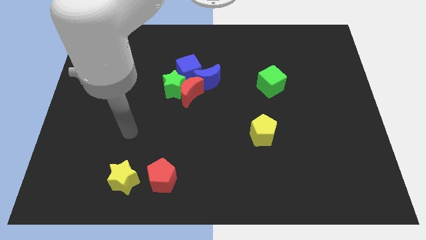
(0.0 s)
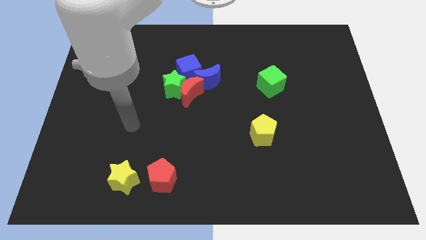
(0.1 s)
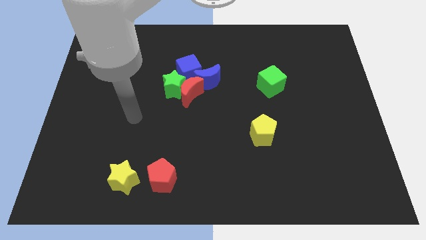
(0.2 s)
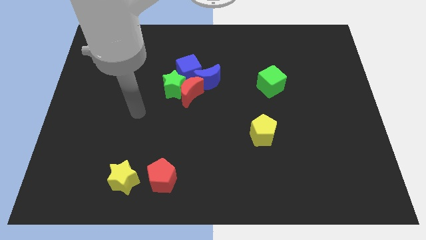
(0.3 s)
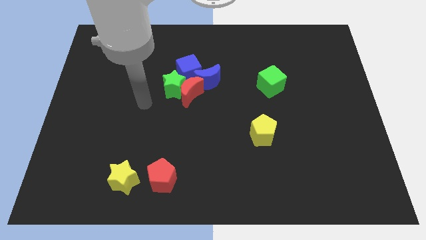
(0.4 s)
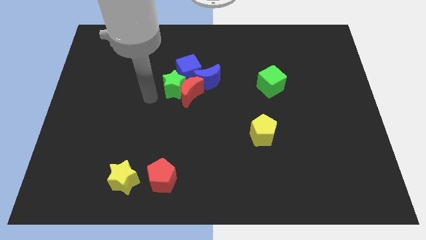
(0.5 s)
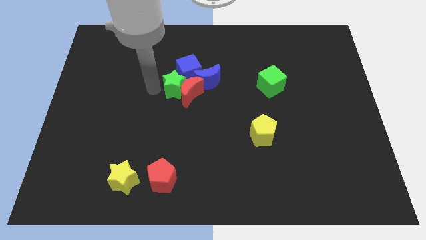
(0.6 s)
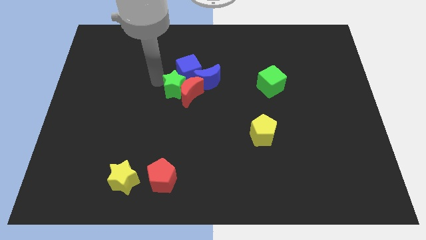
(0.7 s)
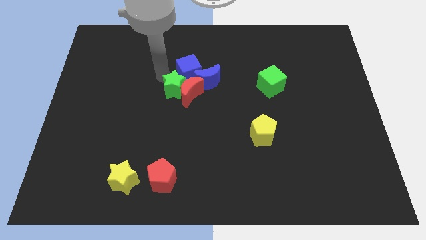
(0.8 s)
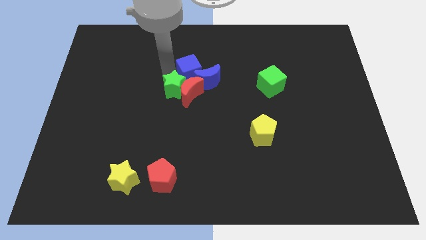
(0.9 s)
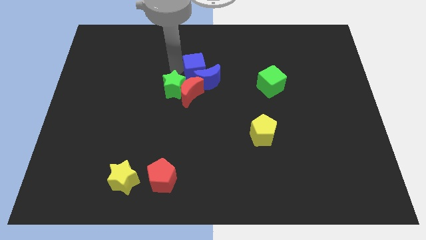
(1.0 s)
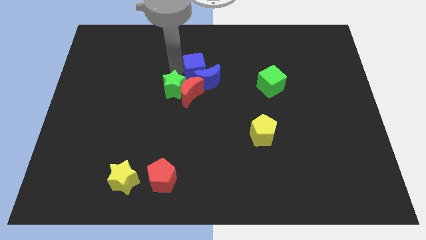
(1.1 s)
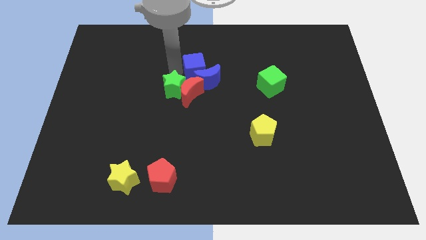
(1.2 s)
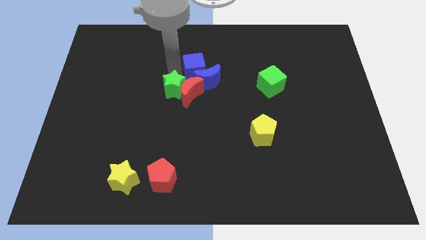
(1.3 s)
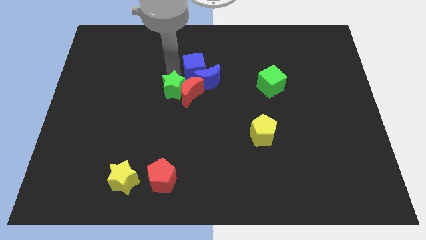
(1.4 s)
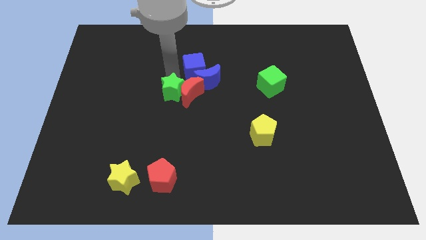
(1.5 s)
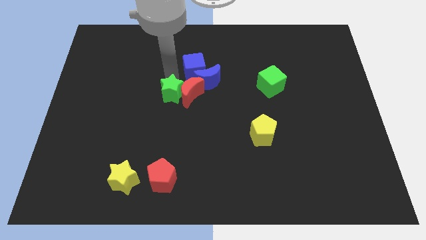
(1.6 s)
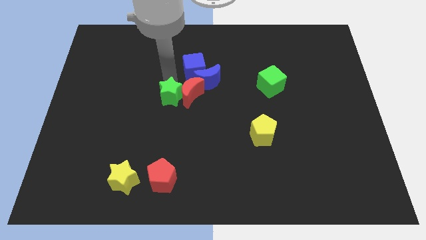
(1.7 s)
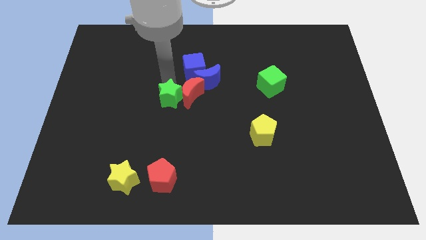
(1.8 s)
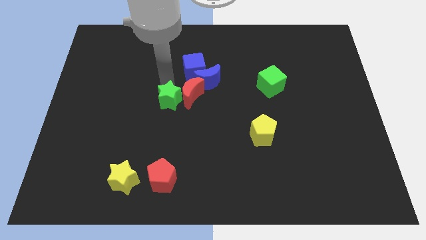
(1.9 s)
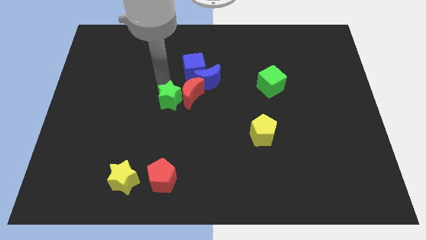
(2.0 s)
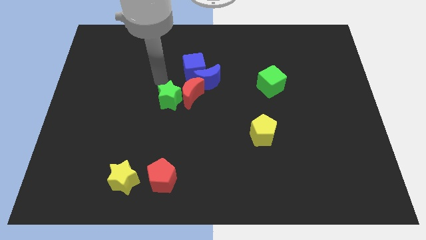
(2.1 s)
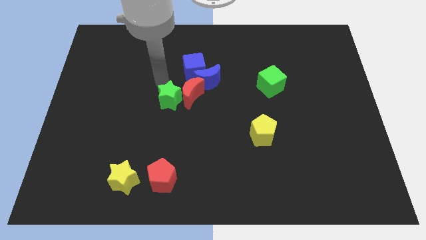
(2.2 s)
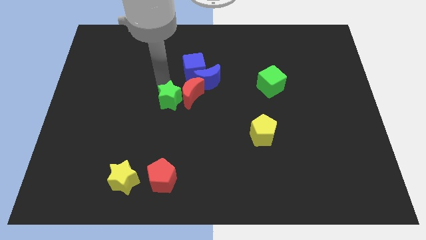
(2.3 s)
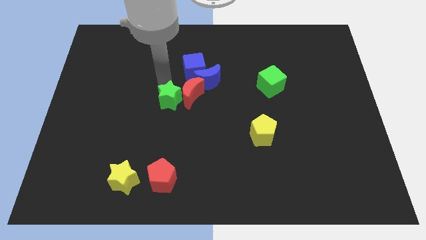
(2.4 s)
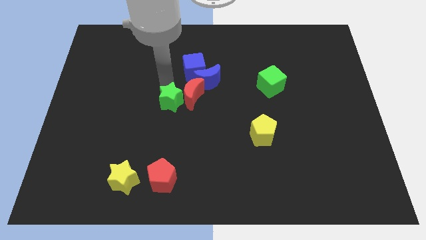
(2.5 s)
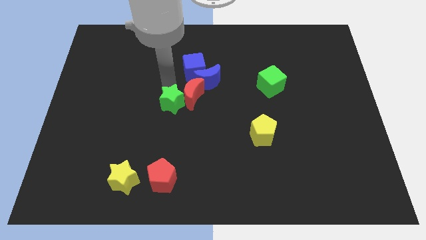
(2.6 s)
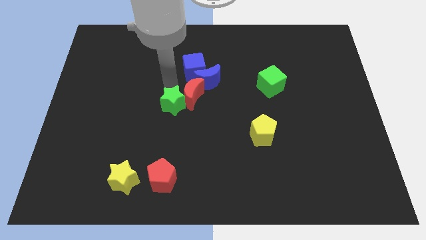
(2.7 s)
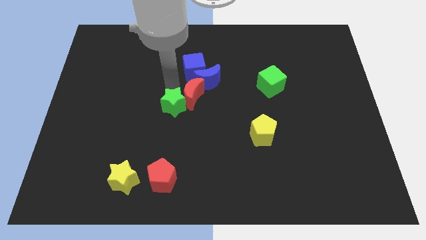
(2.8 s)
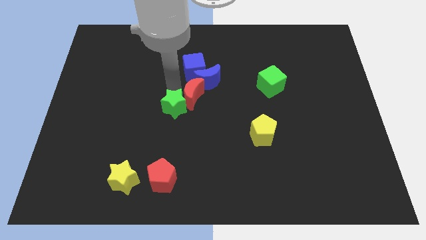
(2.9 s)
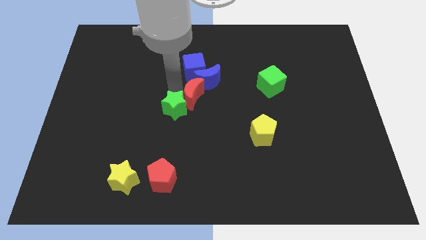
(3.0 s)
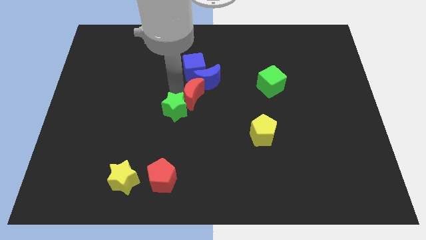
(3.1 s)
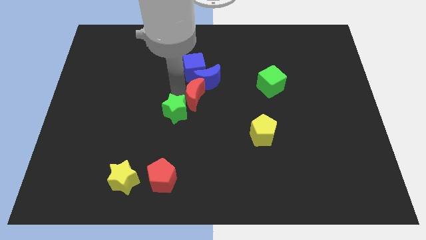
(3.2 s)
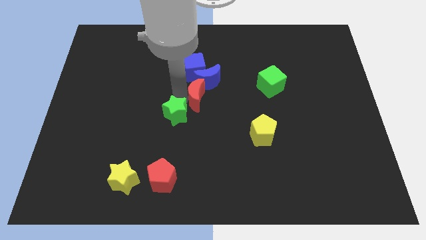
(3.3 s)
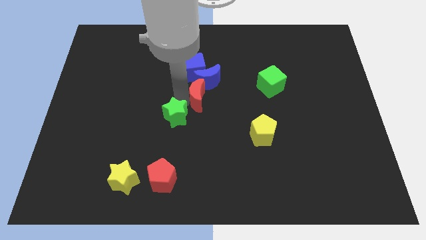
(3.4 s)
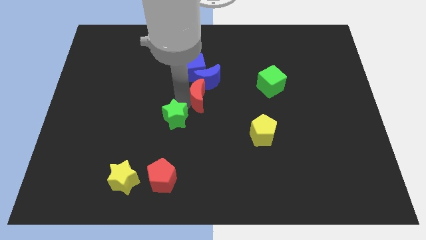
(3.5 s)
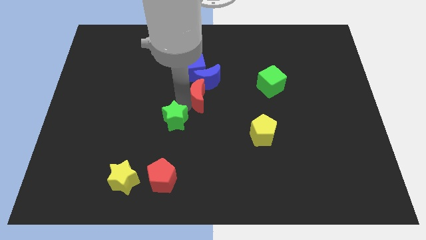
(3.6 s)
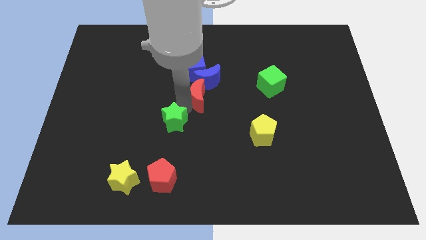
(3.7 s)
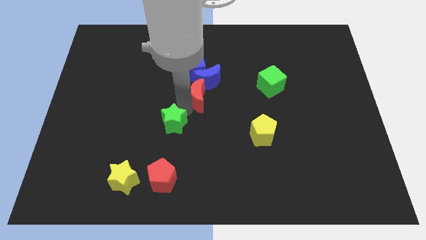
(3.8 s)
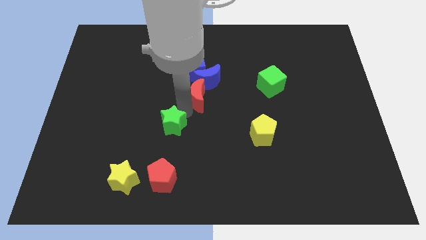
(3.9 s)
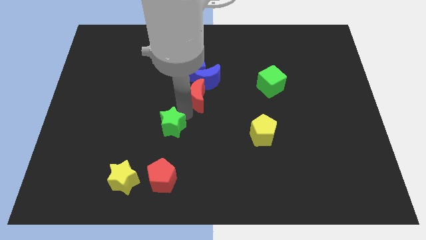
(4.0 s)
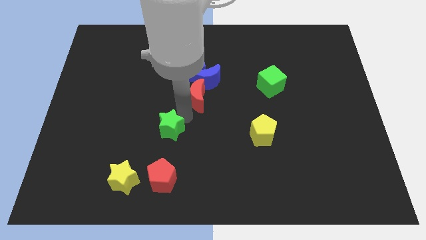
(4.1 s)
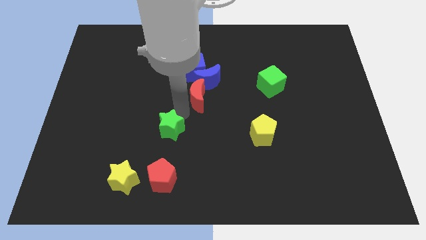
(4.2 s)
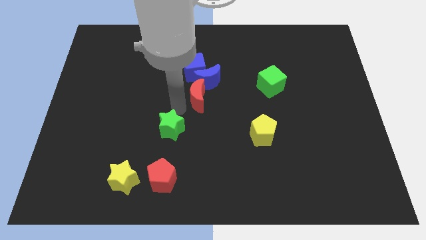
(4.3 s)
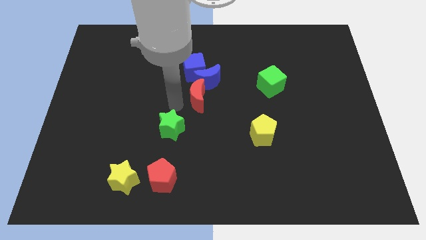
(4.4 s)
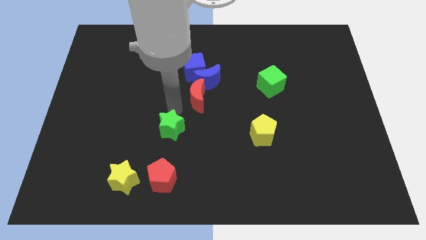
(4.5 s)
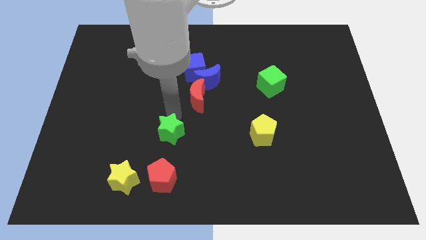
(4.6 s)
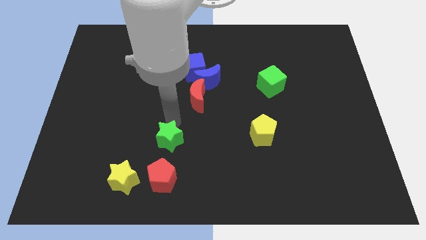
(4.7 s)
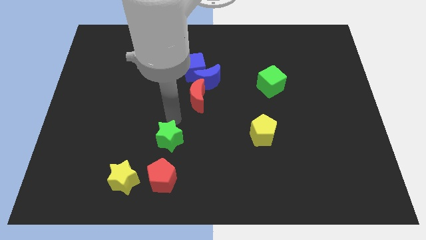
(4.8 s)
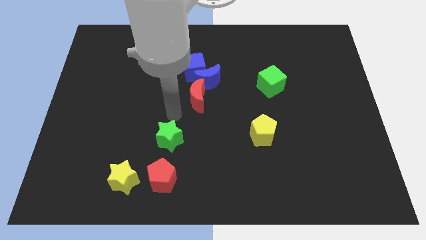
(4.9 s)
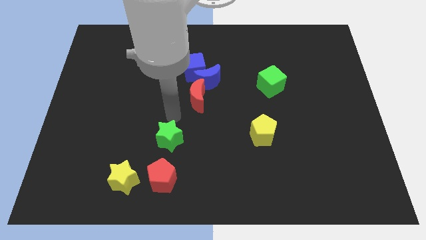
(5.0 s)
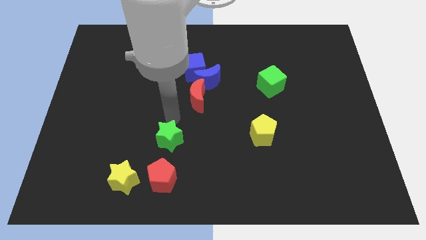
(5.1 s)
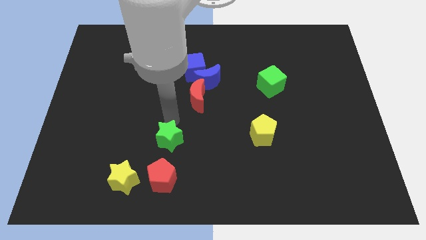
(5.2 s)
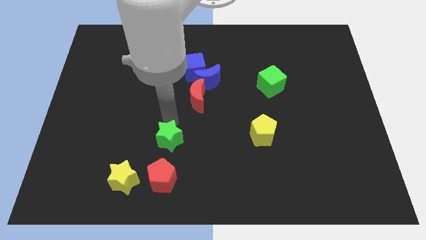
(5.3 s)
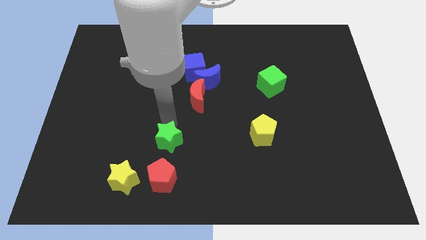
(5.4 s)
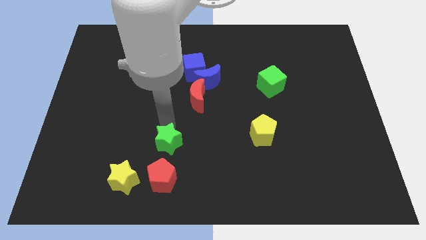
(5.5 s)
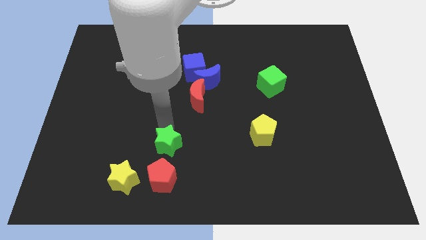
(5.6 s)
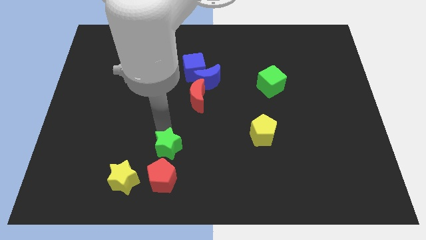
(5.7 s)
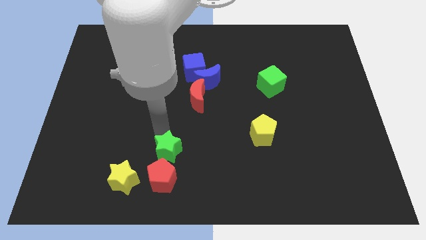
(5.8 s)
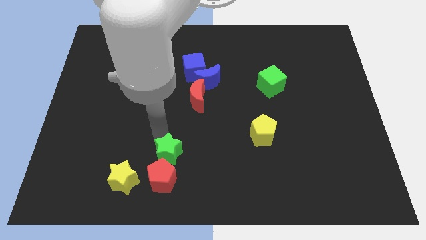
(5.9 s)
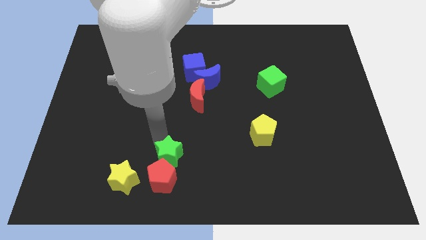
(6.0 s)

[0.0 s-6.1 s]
move the green star towards the red pentagon

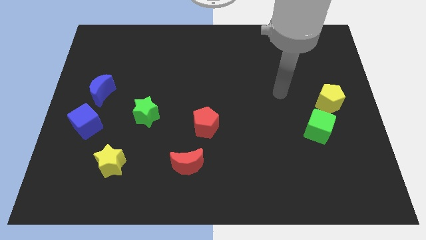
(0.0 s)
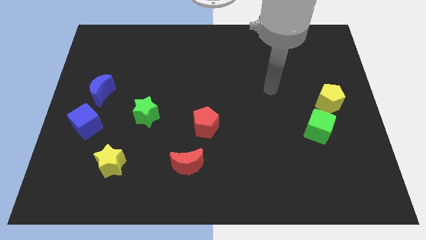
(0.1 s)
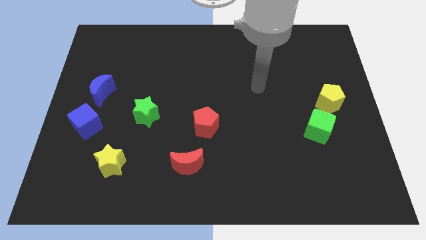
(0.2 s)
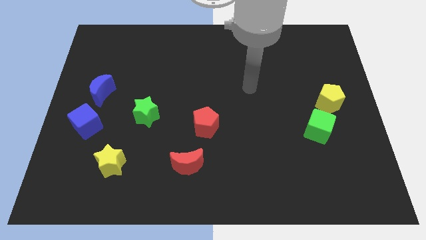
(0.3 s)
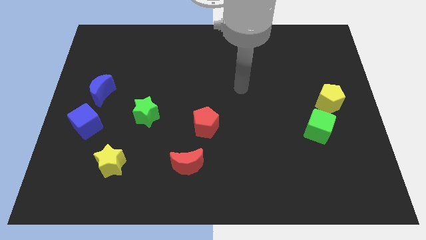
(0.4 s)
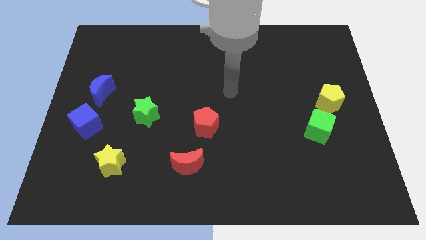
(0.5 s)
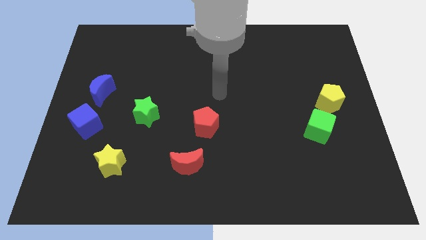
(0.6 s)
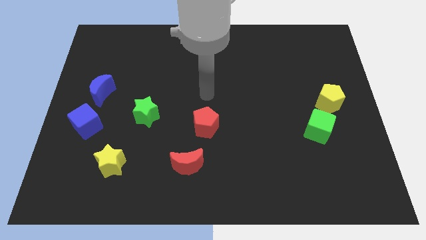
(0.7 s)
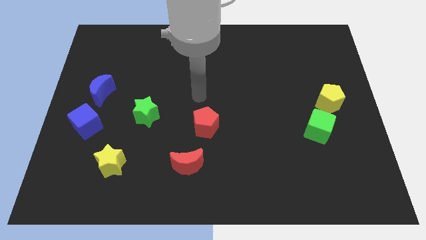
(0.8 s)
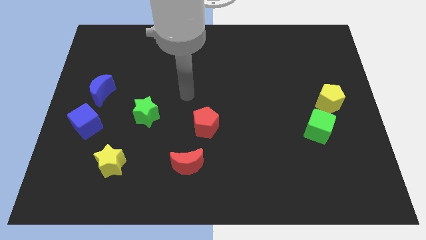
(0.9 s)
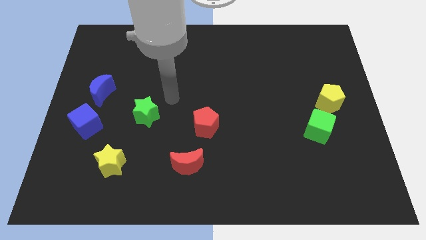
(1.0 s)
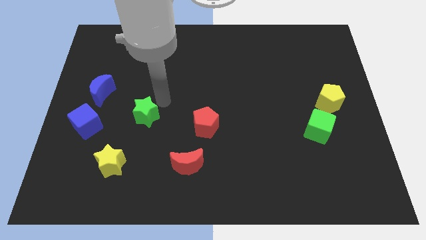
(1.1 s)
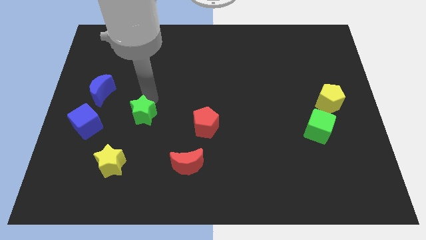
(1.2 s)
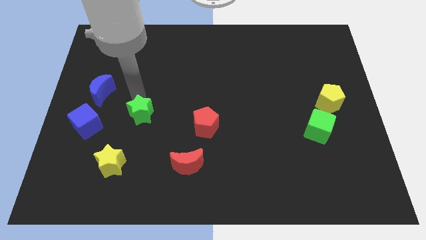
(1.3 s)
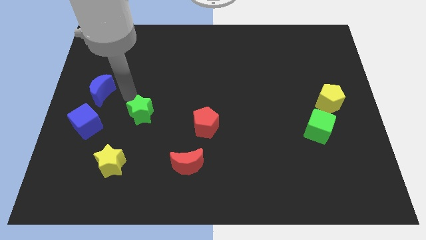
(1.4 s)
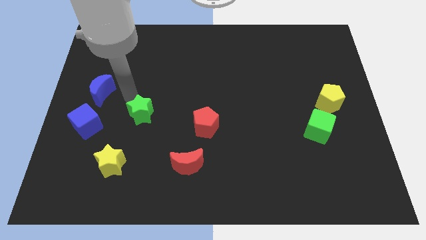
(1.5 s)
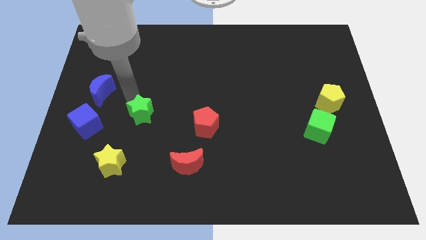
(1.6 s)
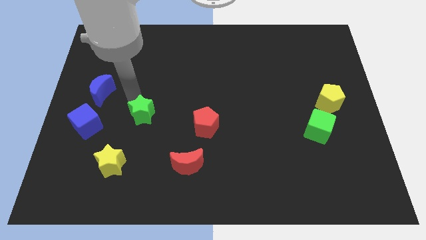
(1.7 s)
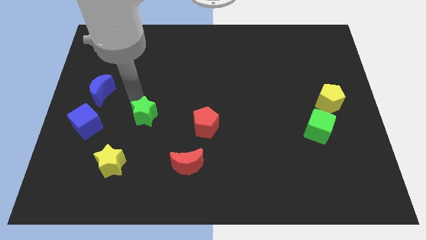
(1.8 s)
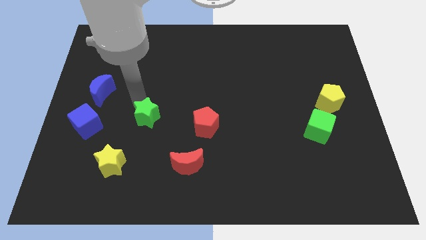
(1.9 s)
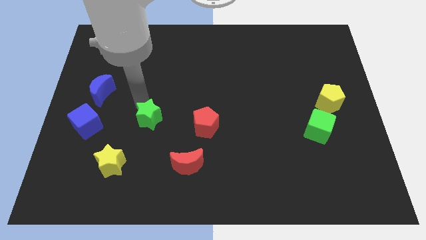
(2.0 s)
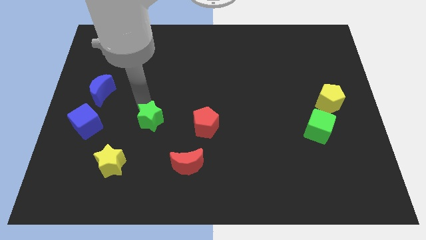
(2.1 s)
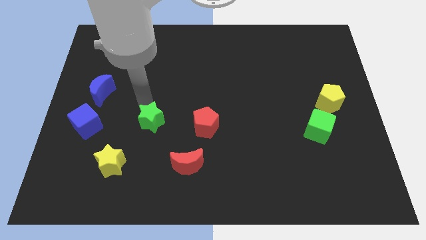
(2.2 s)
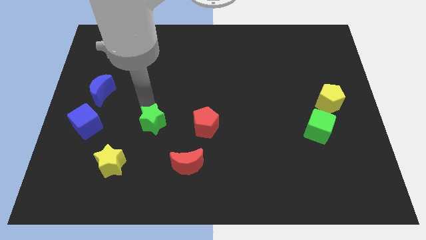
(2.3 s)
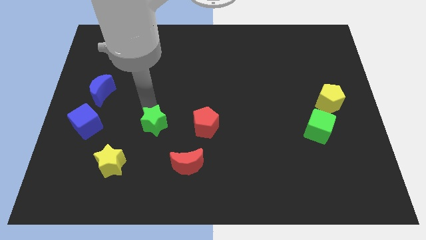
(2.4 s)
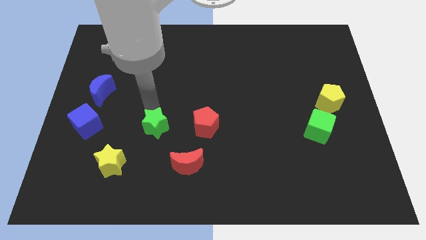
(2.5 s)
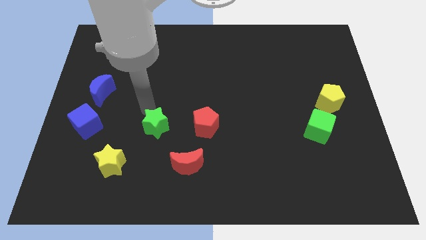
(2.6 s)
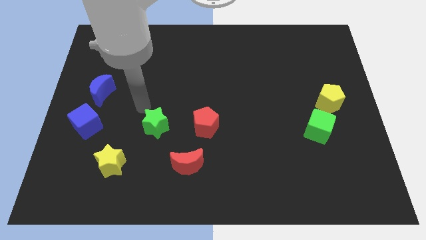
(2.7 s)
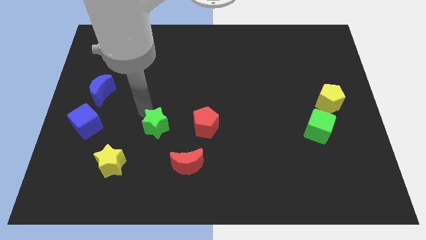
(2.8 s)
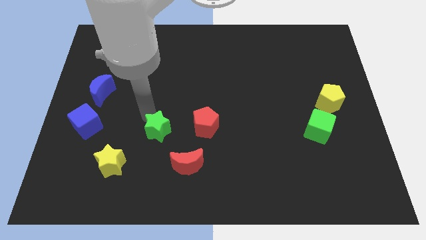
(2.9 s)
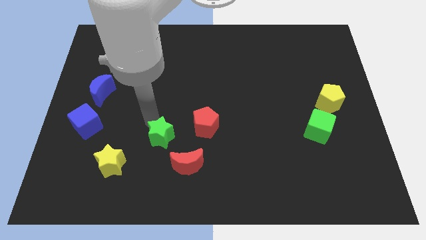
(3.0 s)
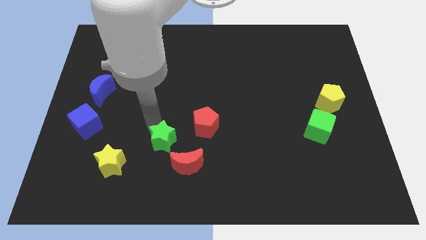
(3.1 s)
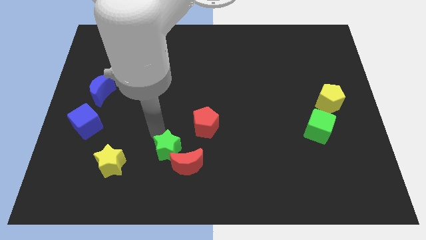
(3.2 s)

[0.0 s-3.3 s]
slide the green star to the red moon
